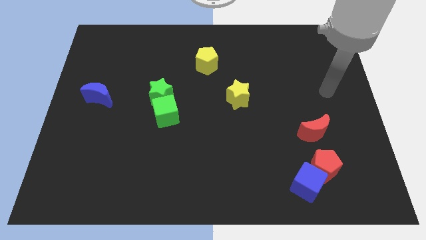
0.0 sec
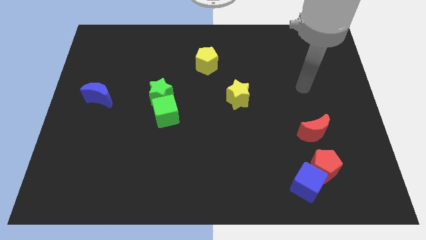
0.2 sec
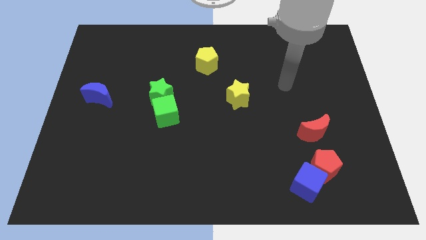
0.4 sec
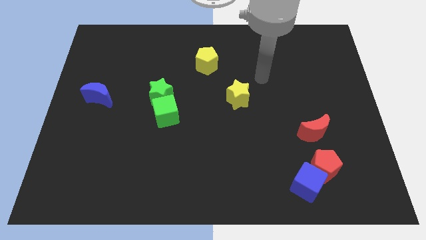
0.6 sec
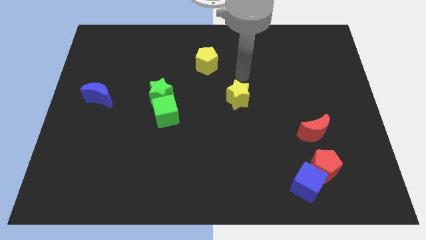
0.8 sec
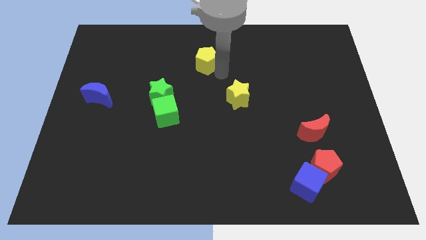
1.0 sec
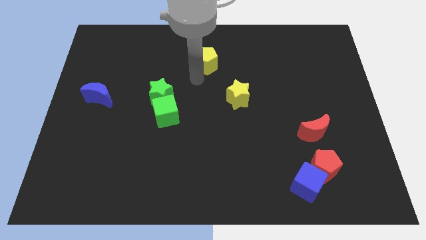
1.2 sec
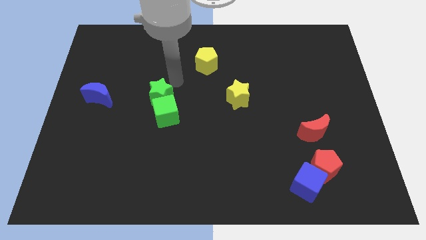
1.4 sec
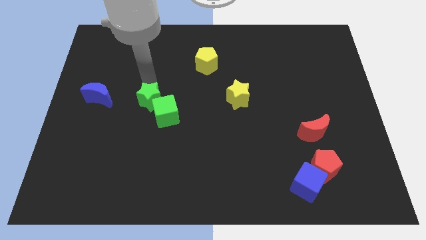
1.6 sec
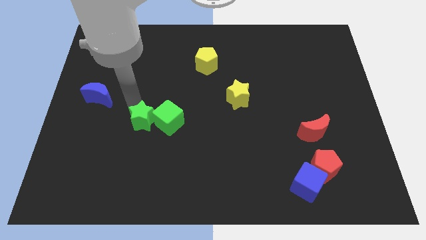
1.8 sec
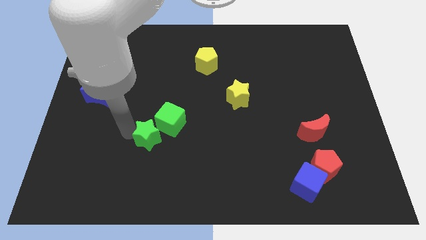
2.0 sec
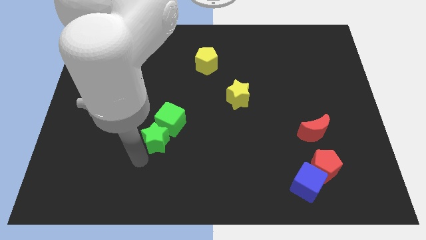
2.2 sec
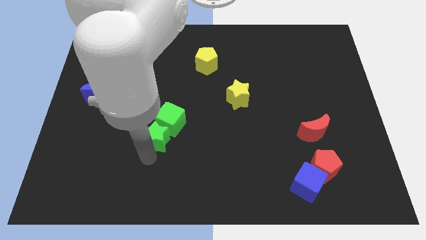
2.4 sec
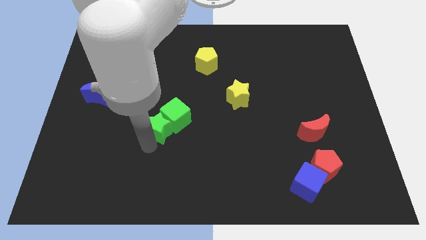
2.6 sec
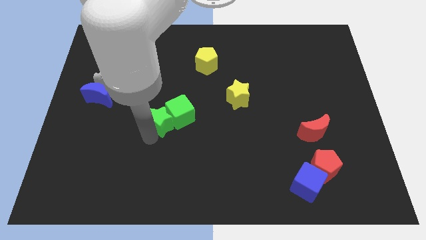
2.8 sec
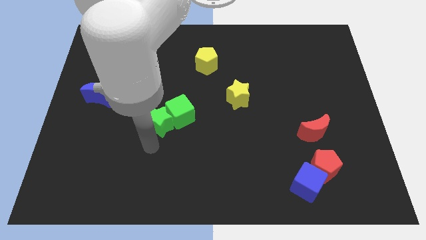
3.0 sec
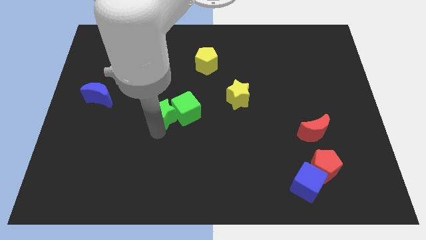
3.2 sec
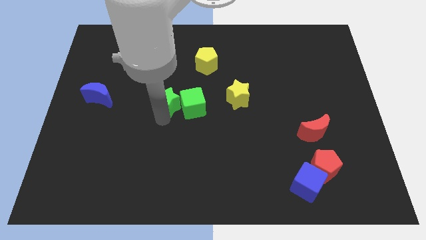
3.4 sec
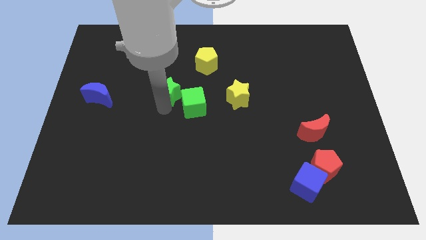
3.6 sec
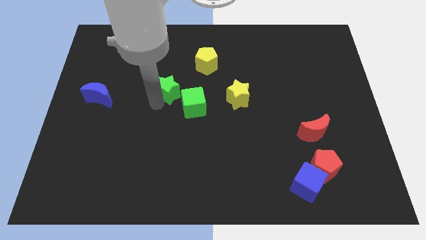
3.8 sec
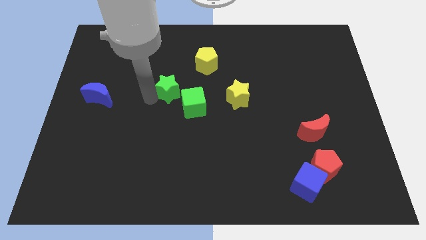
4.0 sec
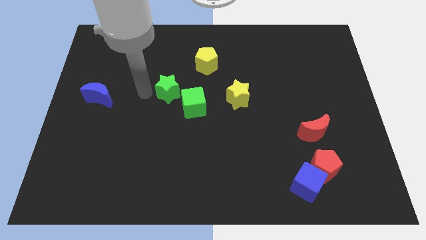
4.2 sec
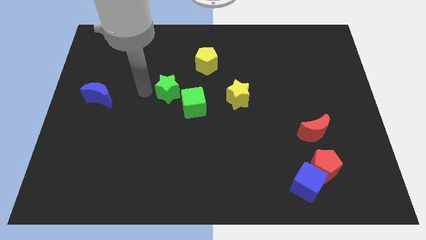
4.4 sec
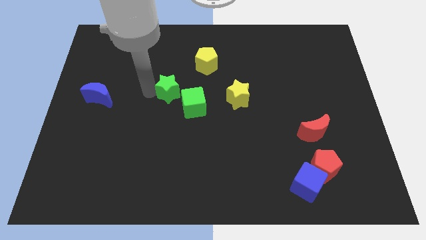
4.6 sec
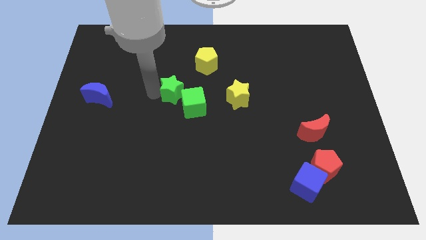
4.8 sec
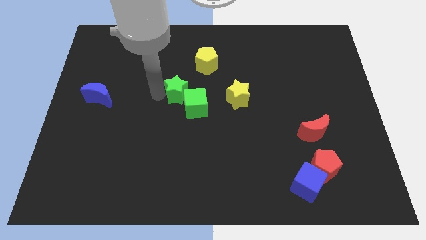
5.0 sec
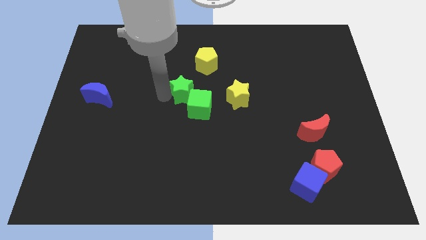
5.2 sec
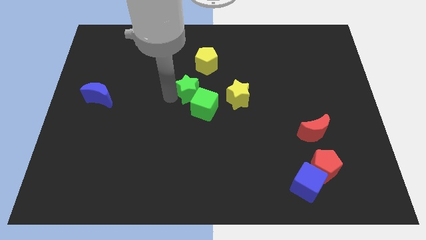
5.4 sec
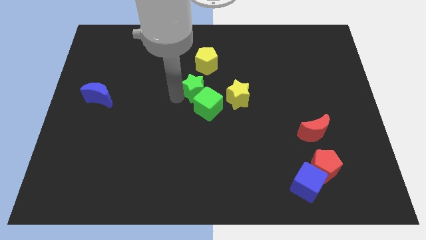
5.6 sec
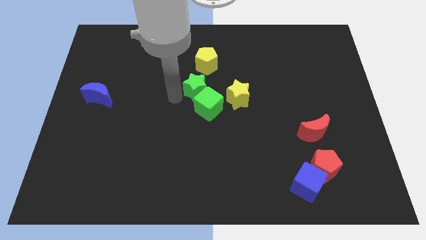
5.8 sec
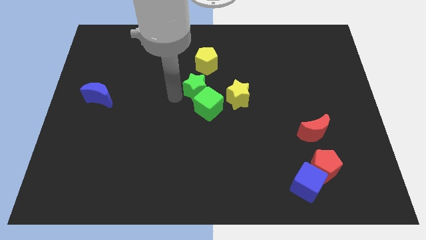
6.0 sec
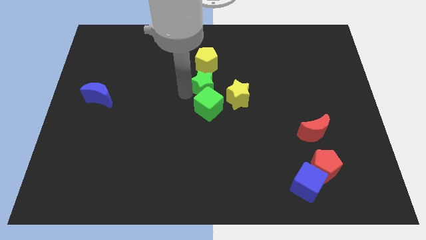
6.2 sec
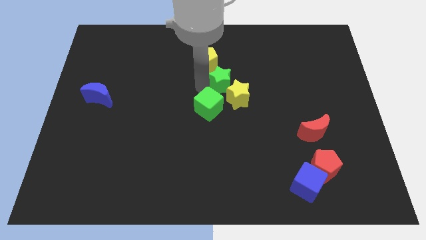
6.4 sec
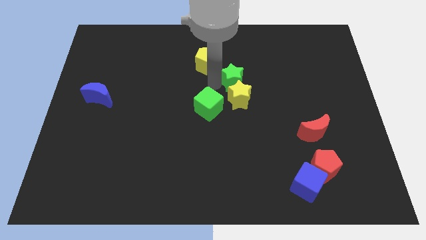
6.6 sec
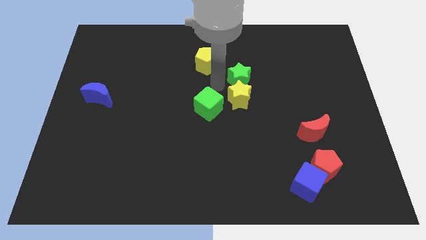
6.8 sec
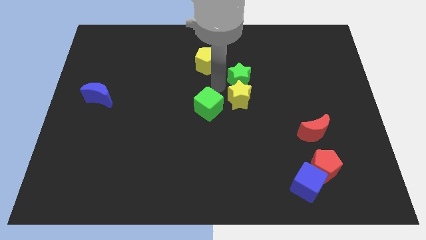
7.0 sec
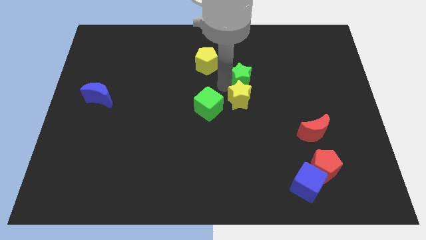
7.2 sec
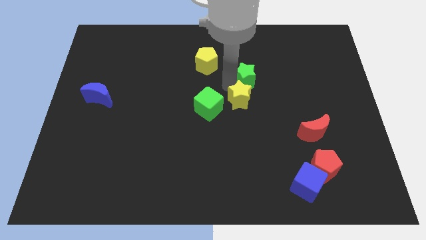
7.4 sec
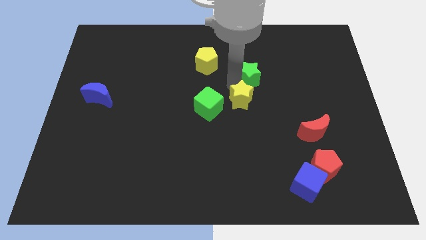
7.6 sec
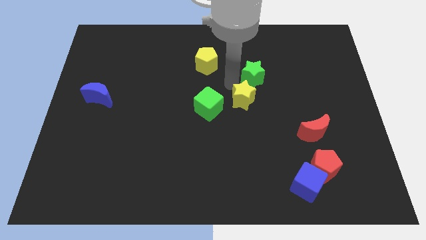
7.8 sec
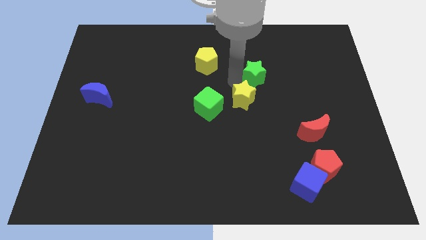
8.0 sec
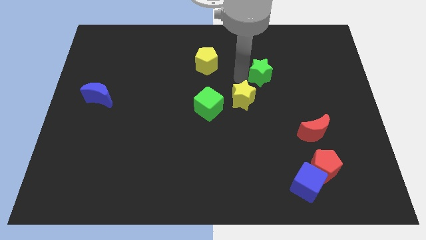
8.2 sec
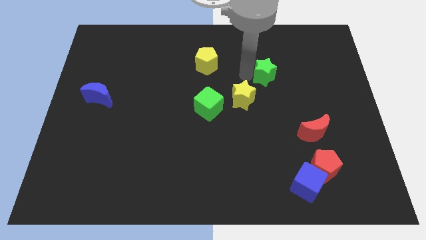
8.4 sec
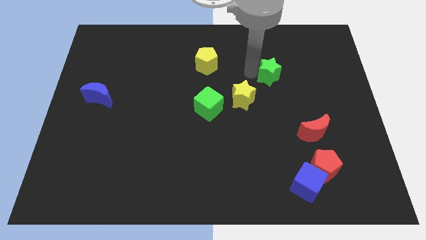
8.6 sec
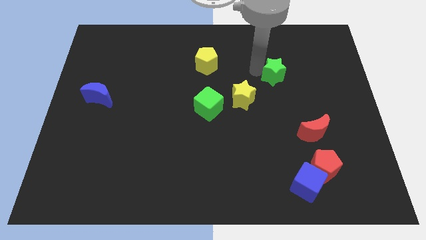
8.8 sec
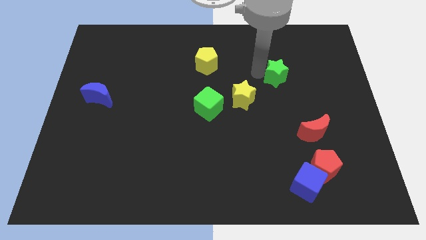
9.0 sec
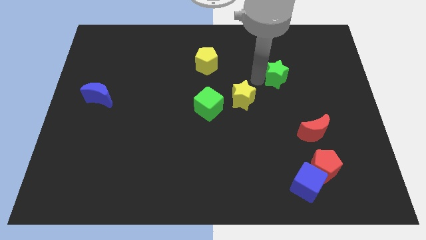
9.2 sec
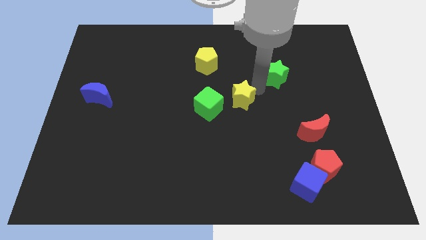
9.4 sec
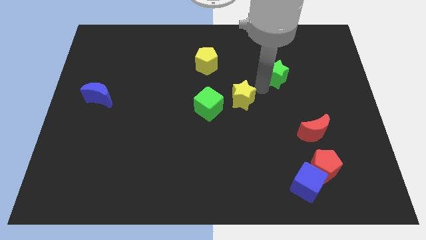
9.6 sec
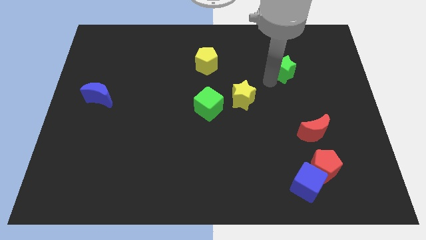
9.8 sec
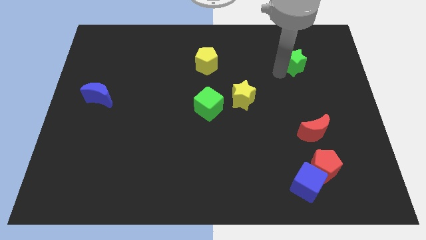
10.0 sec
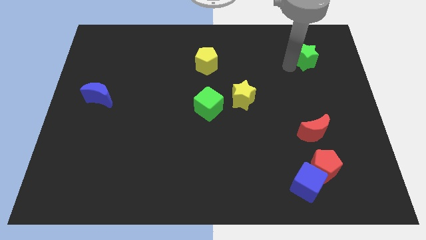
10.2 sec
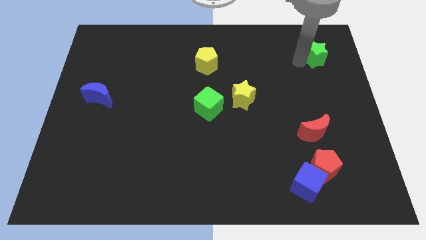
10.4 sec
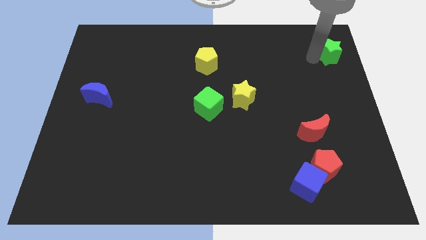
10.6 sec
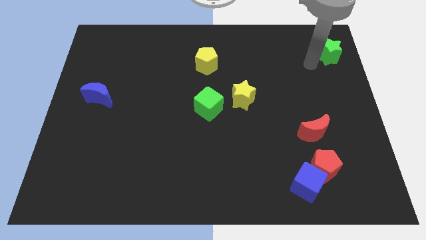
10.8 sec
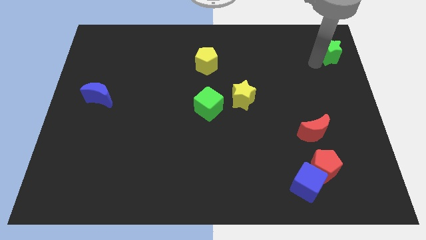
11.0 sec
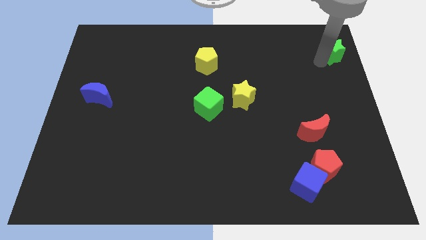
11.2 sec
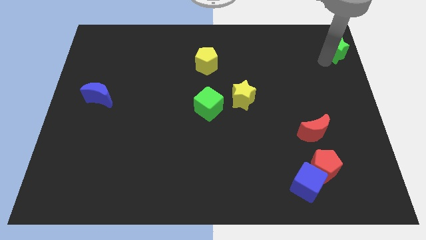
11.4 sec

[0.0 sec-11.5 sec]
put the green star to the top right corner

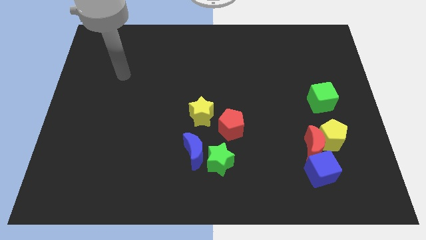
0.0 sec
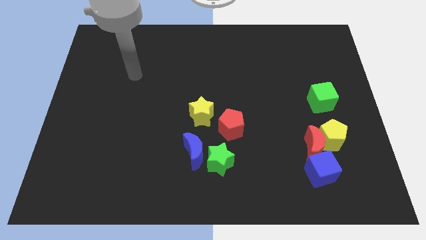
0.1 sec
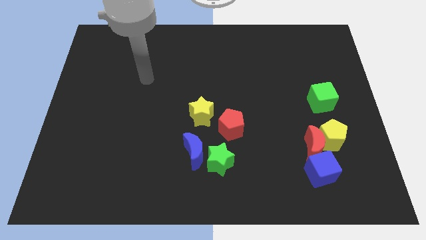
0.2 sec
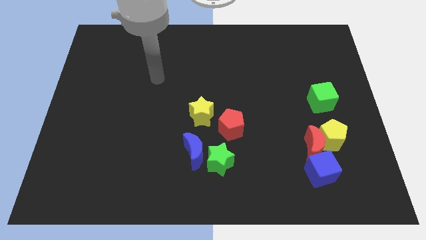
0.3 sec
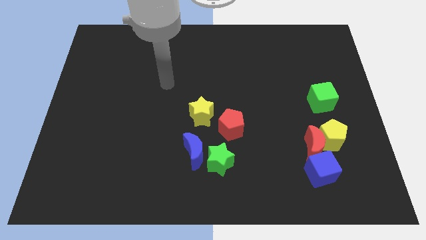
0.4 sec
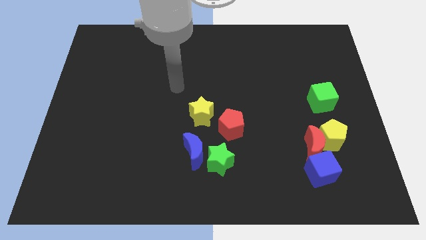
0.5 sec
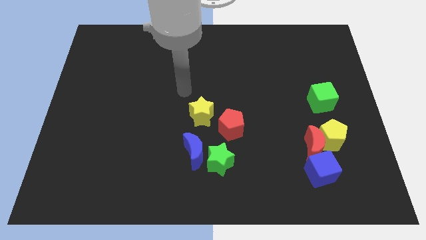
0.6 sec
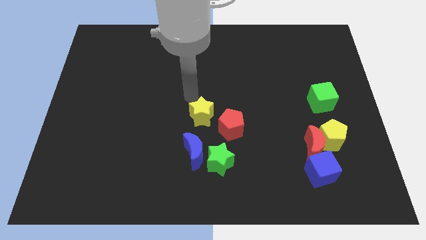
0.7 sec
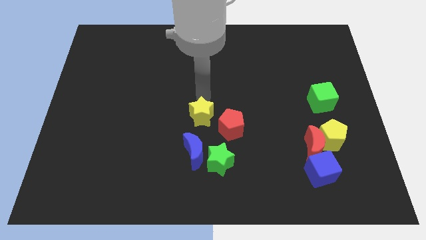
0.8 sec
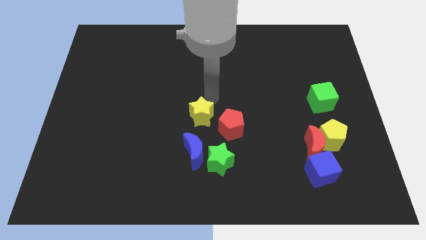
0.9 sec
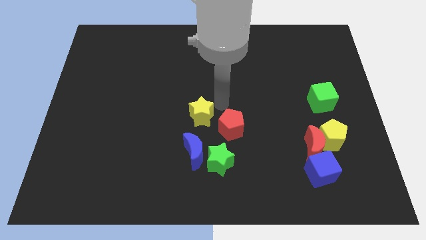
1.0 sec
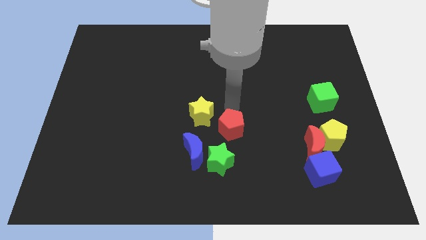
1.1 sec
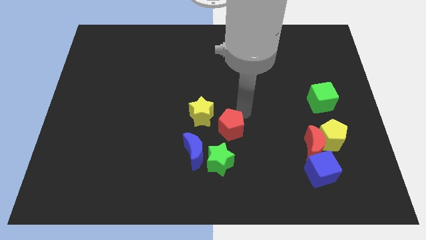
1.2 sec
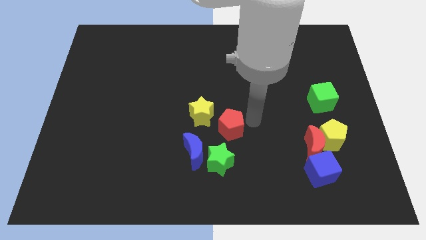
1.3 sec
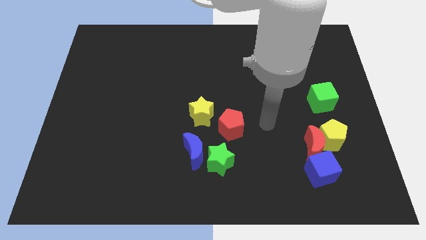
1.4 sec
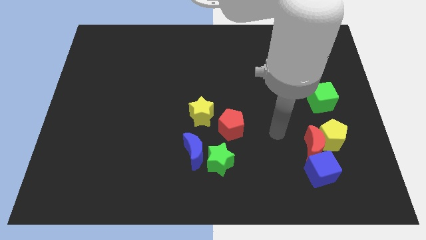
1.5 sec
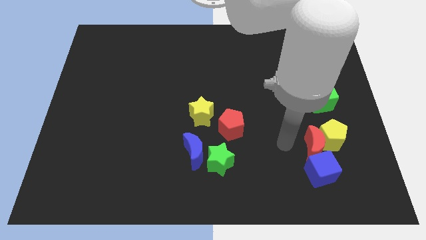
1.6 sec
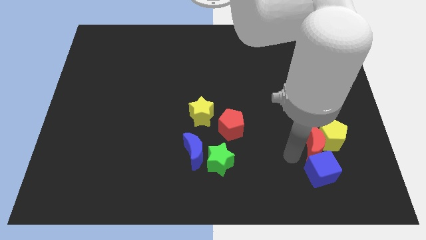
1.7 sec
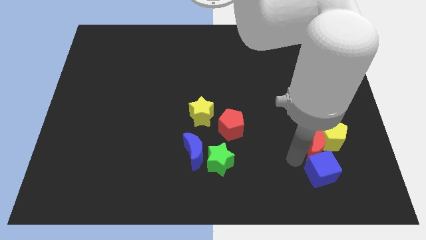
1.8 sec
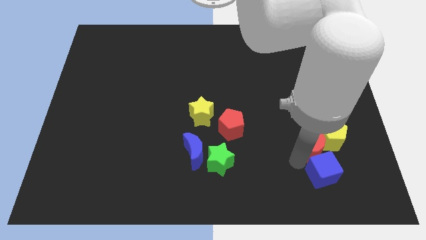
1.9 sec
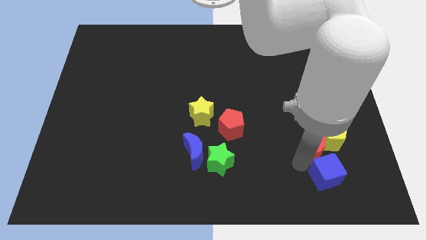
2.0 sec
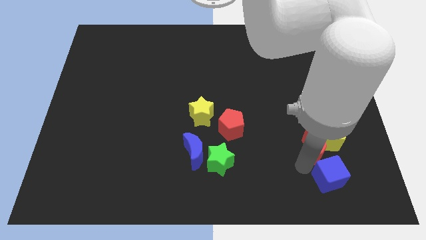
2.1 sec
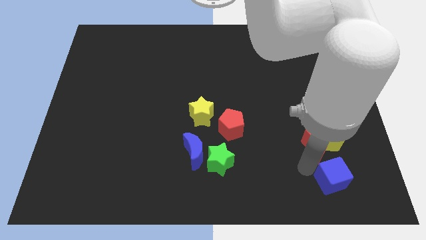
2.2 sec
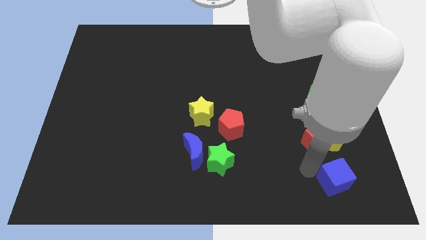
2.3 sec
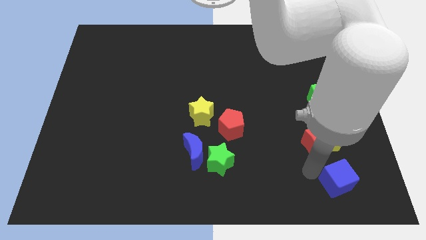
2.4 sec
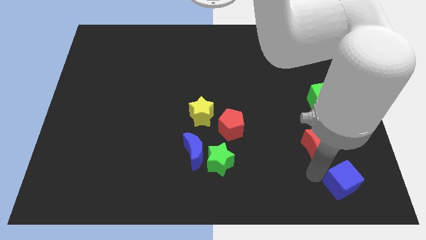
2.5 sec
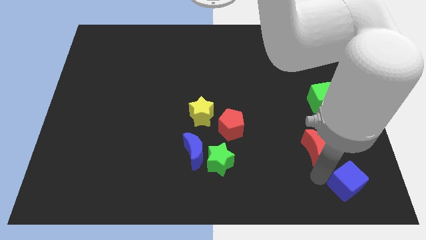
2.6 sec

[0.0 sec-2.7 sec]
push the blue cube to the bottom right of the board
